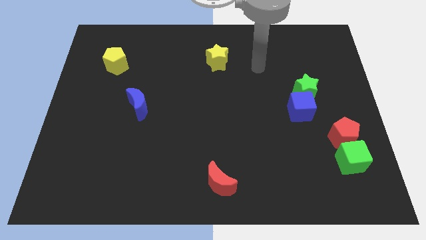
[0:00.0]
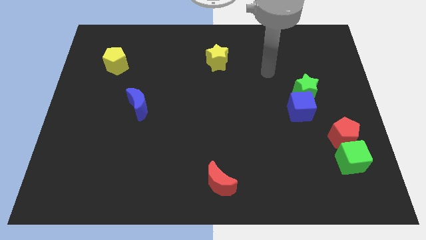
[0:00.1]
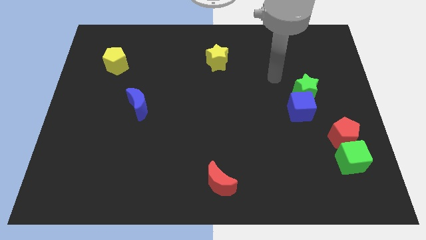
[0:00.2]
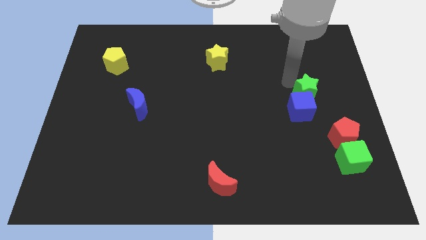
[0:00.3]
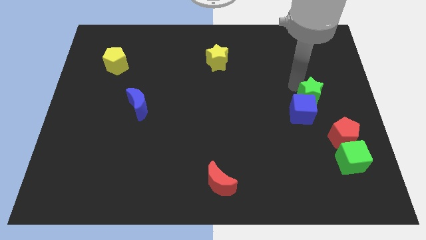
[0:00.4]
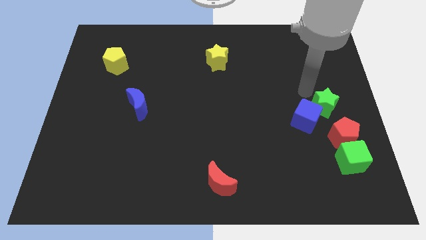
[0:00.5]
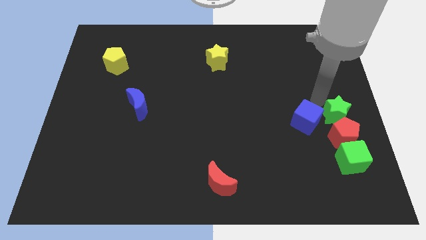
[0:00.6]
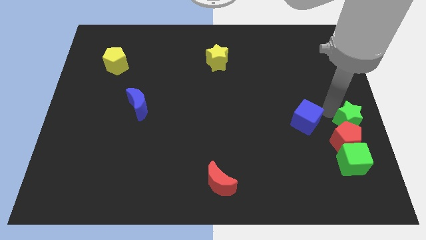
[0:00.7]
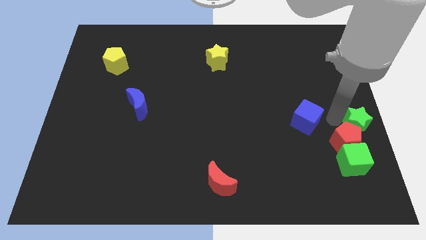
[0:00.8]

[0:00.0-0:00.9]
move the blue cube away from the green star

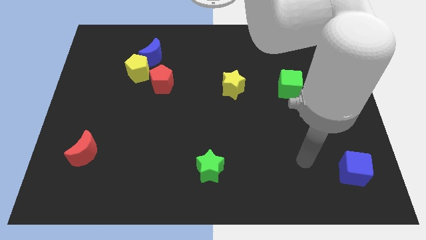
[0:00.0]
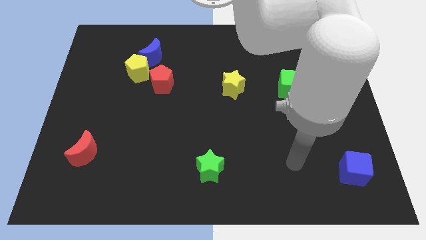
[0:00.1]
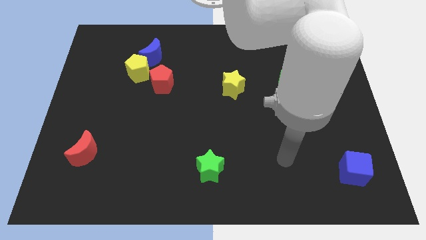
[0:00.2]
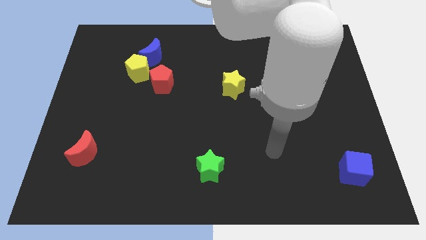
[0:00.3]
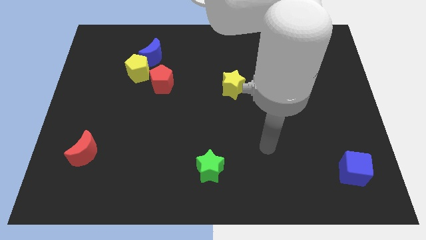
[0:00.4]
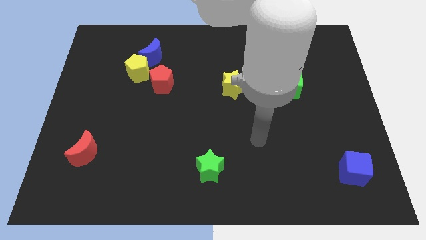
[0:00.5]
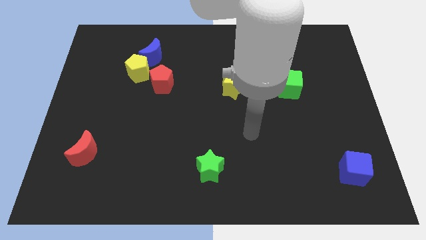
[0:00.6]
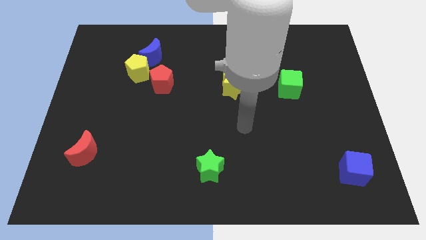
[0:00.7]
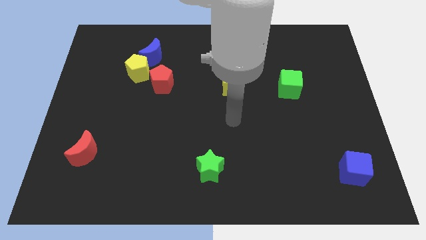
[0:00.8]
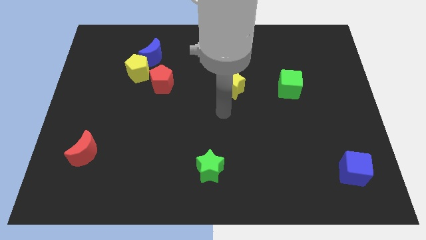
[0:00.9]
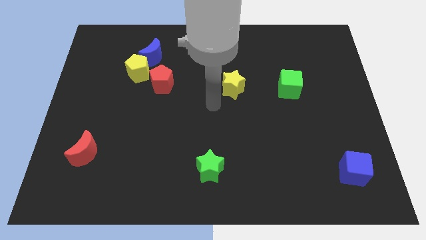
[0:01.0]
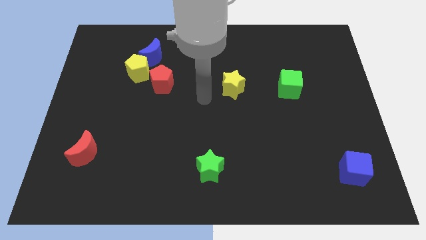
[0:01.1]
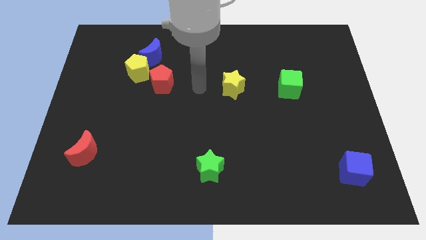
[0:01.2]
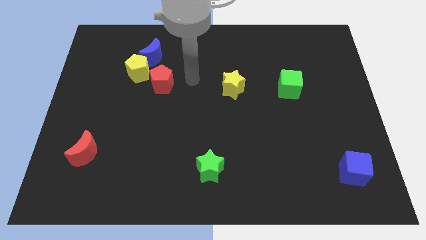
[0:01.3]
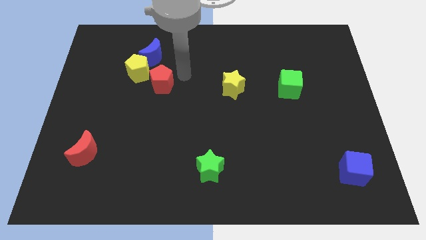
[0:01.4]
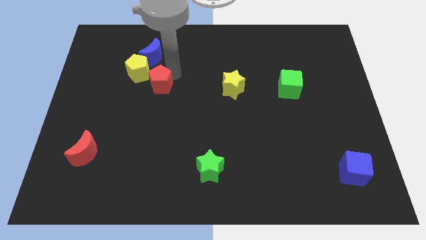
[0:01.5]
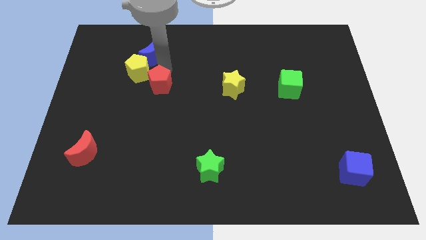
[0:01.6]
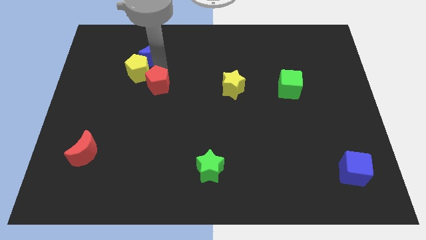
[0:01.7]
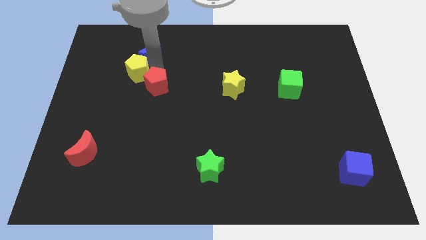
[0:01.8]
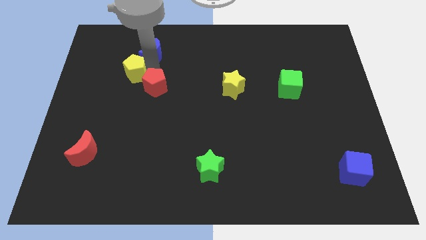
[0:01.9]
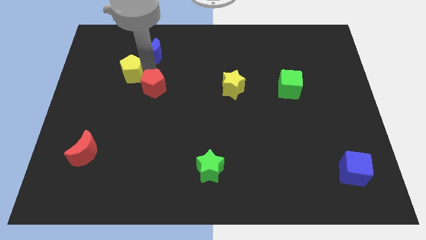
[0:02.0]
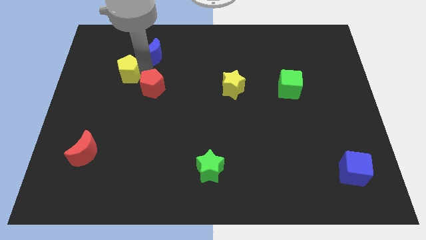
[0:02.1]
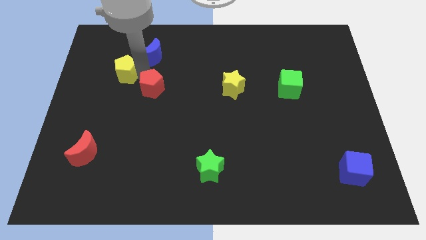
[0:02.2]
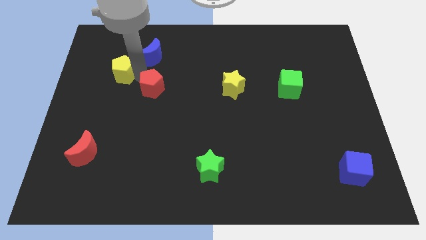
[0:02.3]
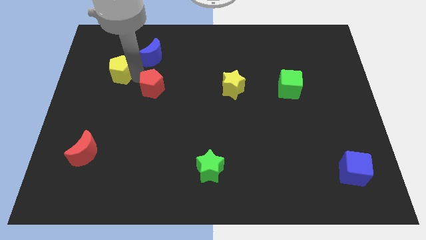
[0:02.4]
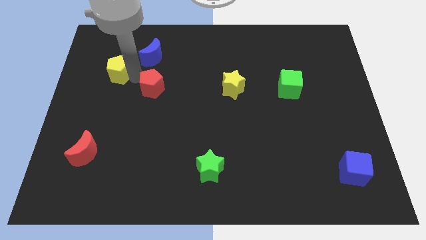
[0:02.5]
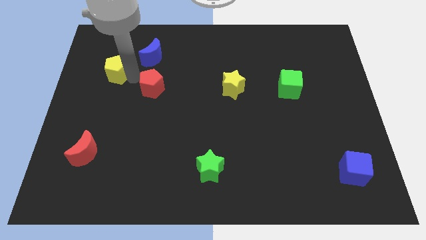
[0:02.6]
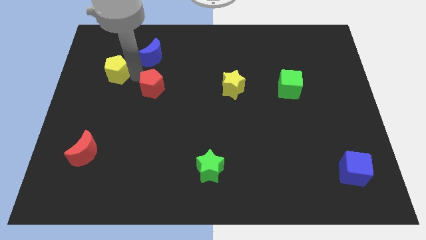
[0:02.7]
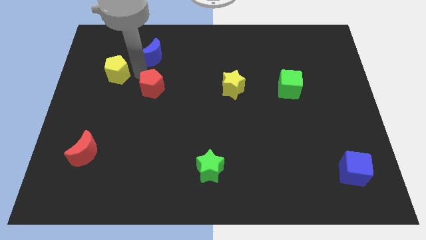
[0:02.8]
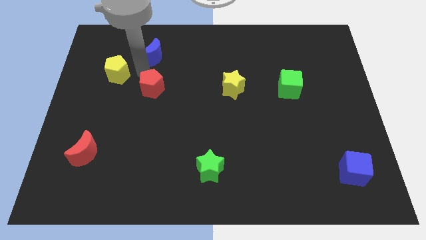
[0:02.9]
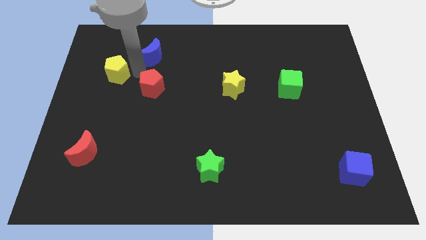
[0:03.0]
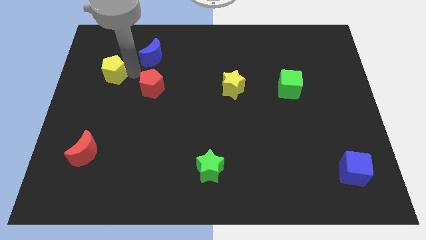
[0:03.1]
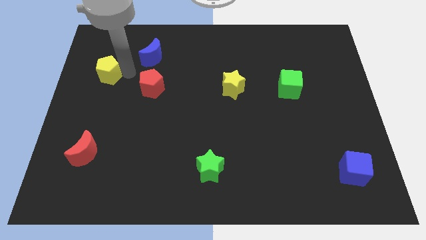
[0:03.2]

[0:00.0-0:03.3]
pull the yellow pentagon apart from the blue moon and red pentagon

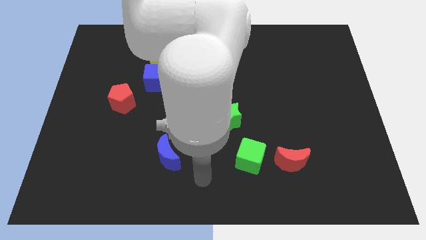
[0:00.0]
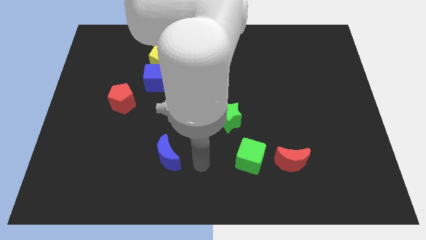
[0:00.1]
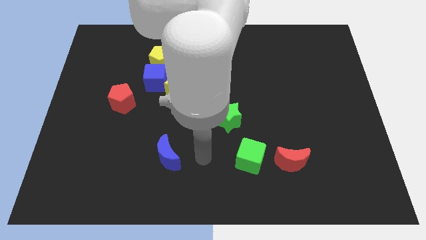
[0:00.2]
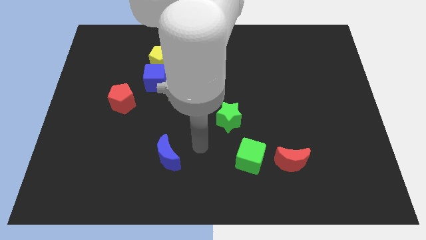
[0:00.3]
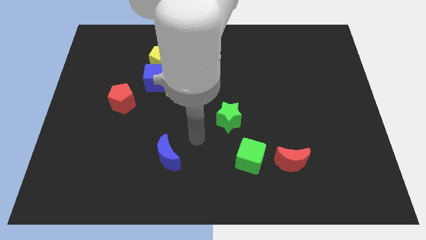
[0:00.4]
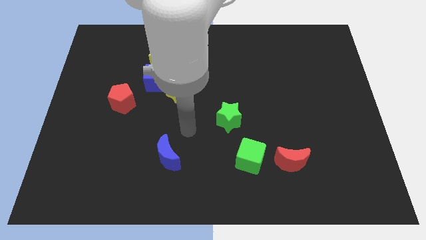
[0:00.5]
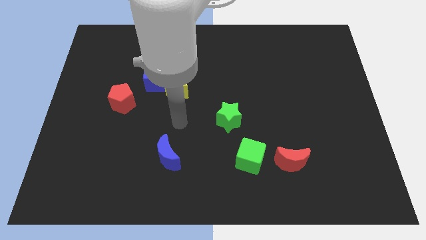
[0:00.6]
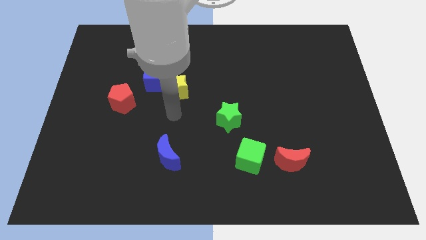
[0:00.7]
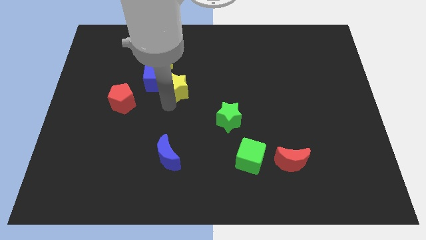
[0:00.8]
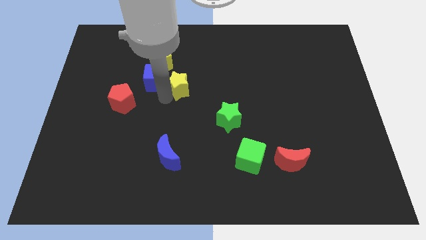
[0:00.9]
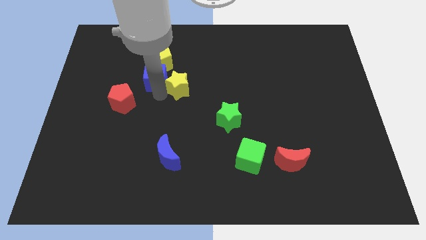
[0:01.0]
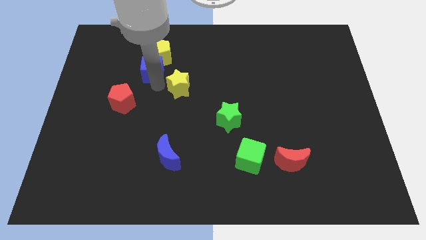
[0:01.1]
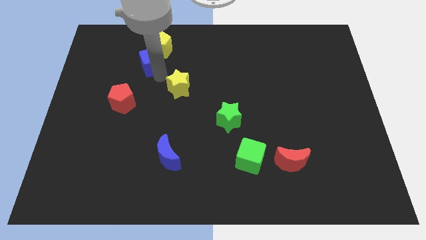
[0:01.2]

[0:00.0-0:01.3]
pull the yellow star apart from the blue cube

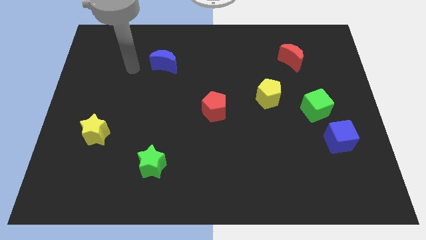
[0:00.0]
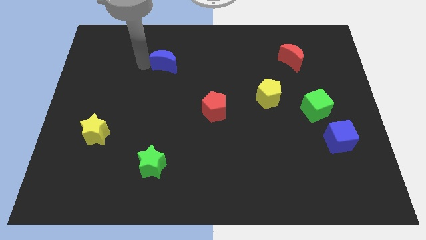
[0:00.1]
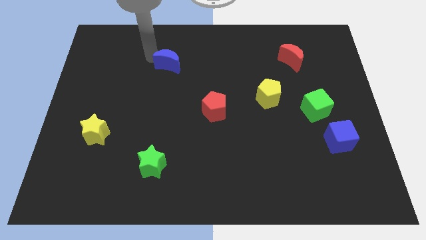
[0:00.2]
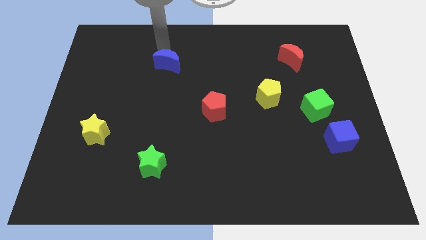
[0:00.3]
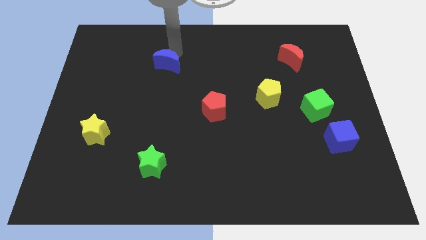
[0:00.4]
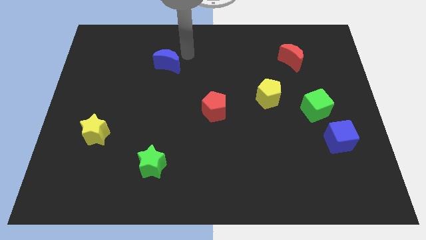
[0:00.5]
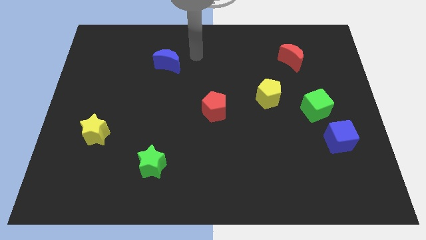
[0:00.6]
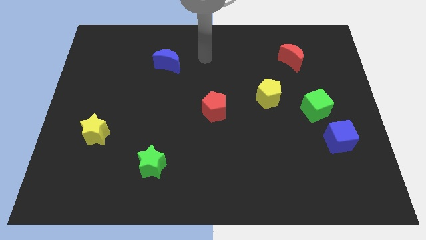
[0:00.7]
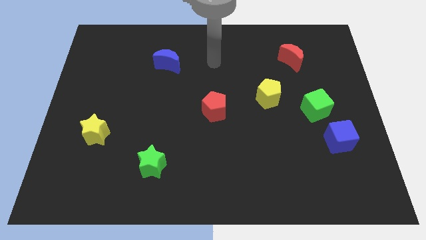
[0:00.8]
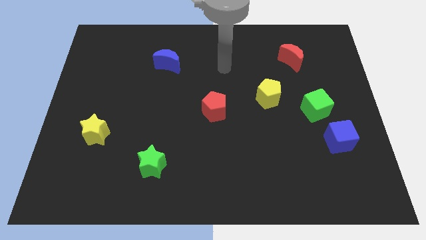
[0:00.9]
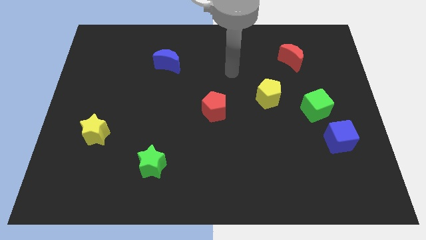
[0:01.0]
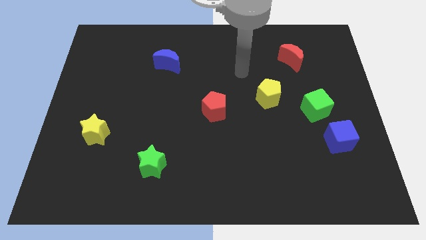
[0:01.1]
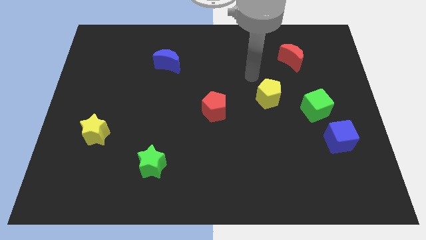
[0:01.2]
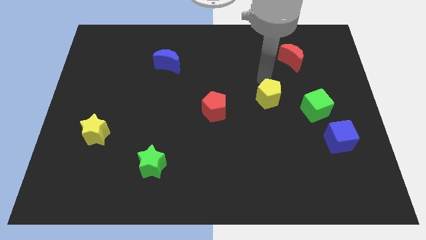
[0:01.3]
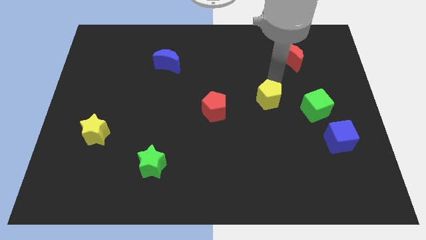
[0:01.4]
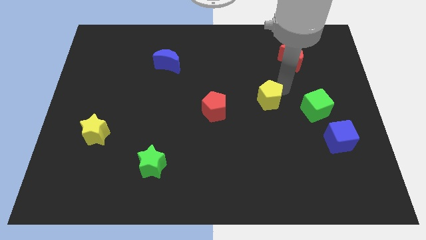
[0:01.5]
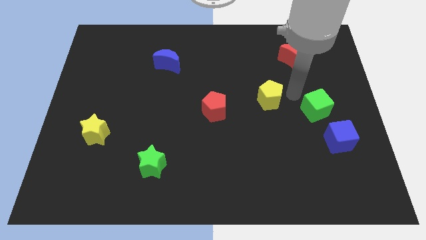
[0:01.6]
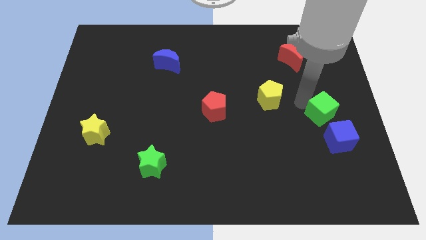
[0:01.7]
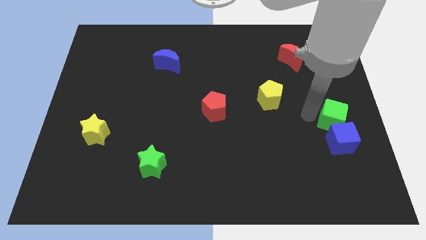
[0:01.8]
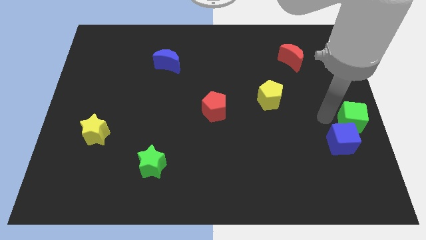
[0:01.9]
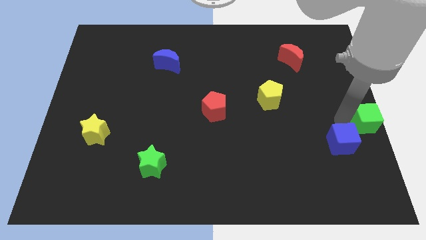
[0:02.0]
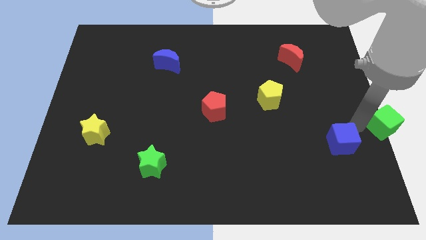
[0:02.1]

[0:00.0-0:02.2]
move the blue cube away from the green cube

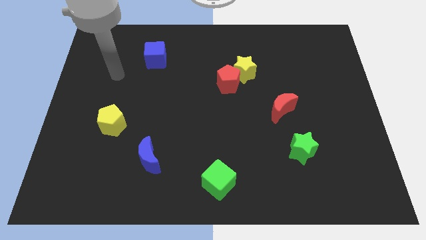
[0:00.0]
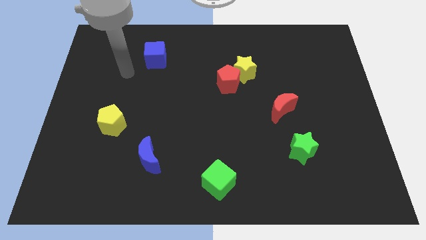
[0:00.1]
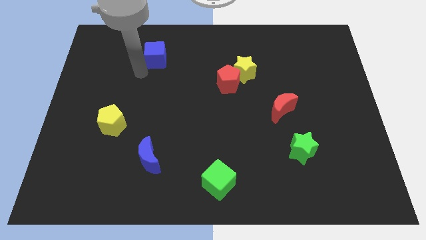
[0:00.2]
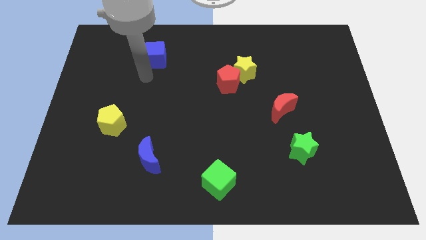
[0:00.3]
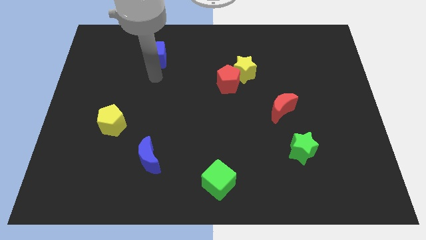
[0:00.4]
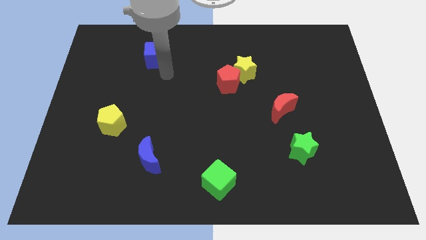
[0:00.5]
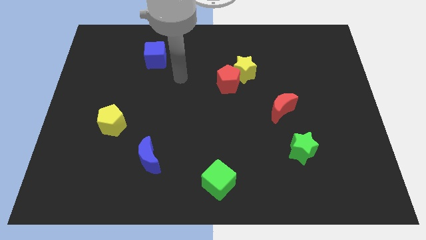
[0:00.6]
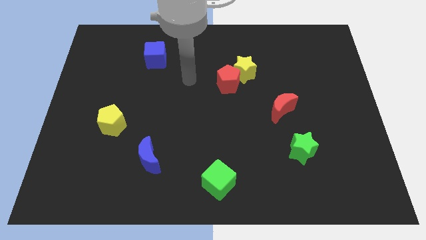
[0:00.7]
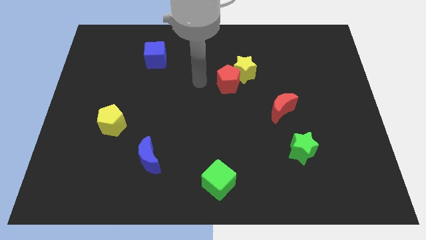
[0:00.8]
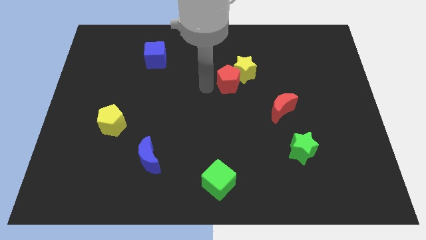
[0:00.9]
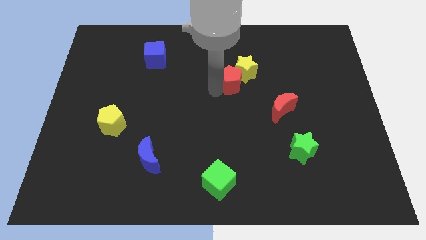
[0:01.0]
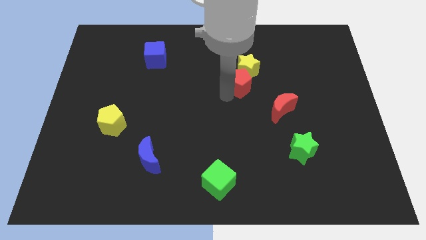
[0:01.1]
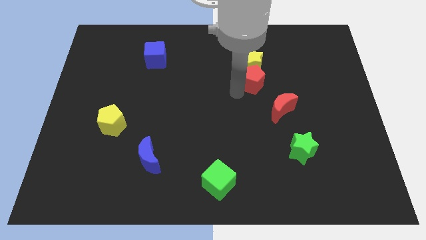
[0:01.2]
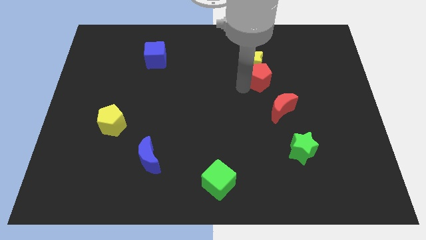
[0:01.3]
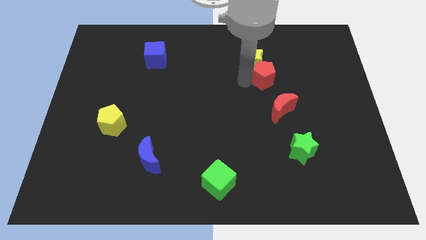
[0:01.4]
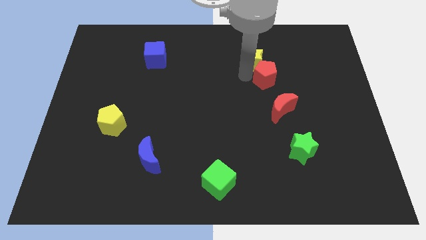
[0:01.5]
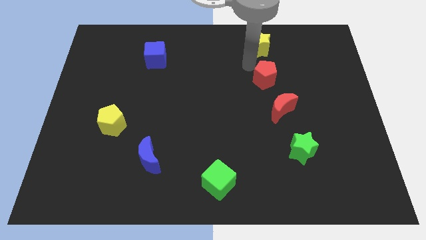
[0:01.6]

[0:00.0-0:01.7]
separate the red pentagon from the yellow star
